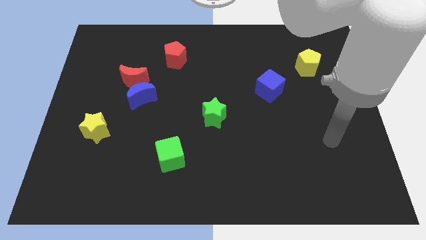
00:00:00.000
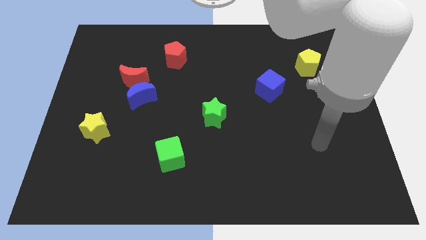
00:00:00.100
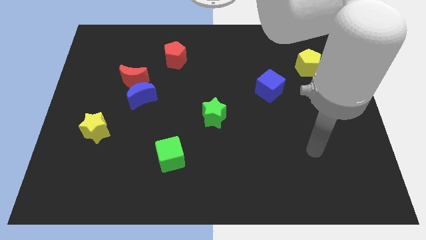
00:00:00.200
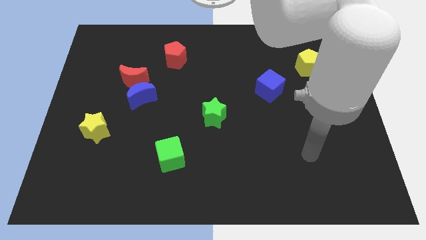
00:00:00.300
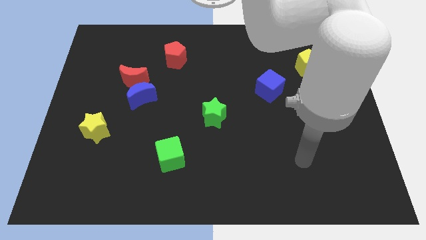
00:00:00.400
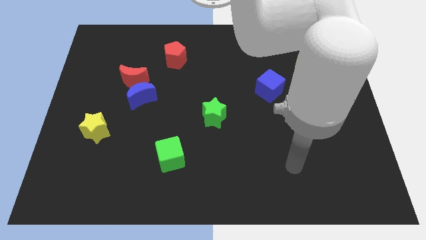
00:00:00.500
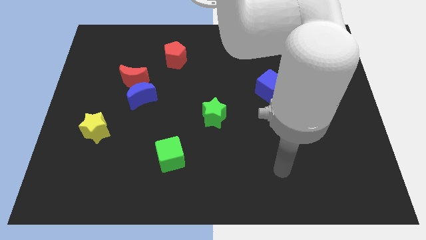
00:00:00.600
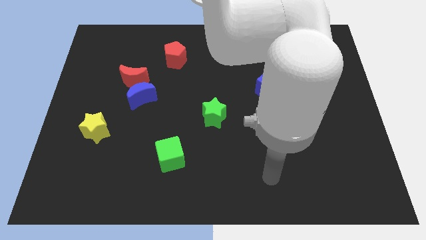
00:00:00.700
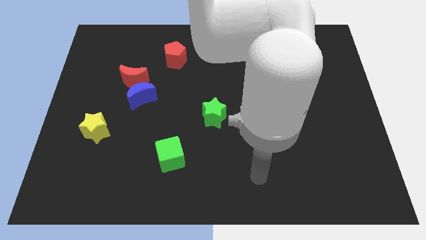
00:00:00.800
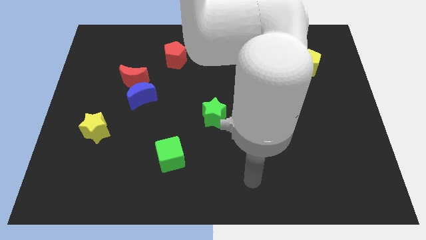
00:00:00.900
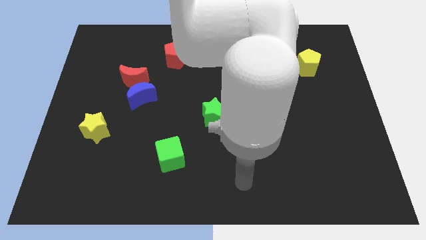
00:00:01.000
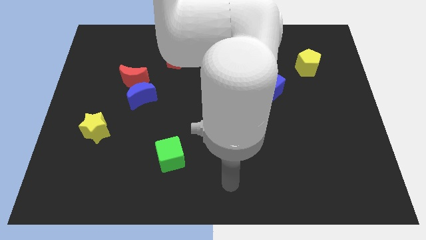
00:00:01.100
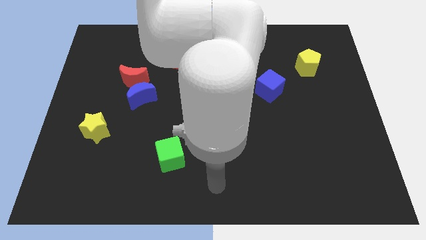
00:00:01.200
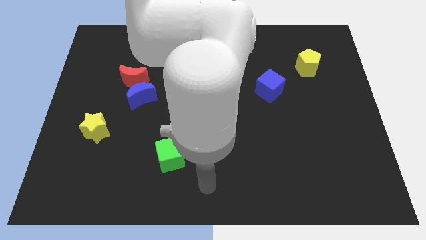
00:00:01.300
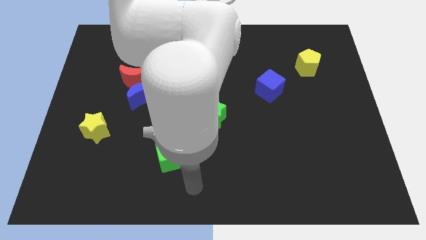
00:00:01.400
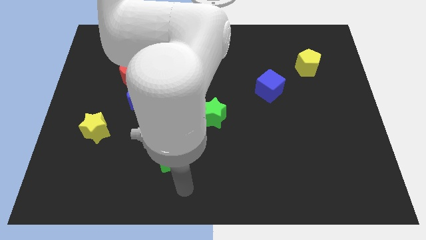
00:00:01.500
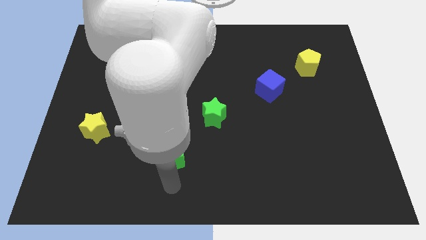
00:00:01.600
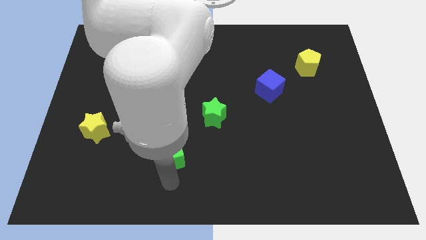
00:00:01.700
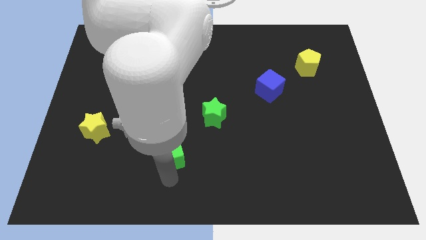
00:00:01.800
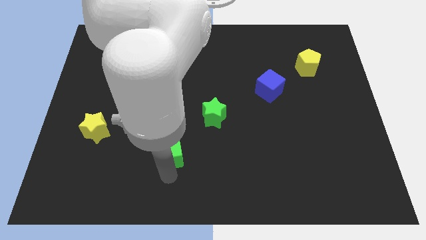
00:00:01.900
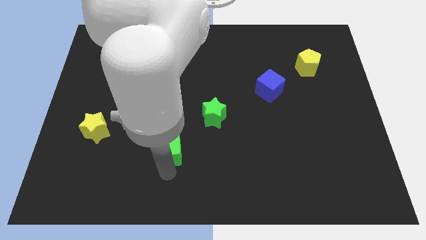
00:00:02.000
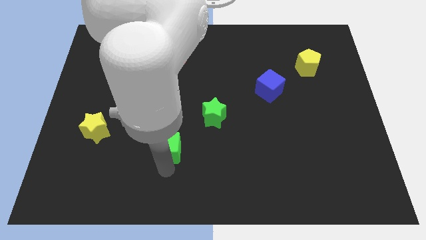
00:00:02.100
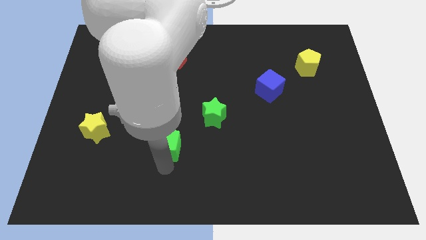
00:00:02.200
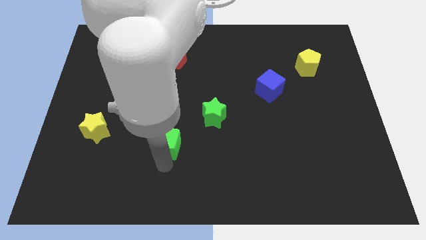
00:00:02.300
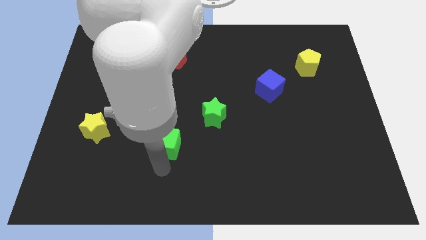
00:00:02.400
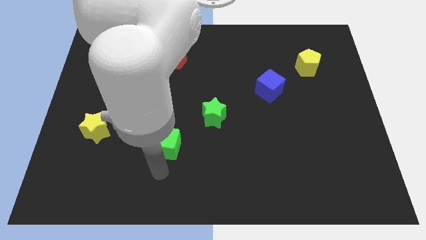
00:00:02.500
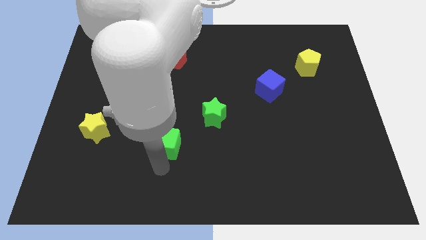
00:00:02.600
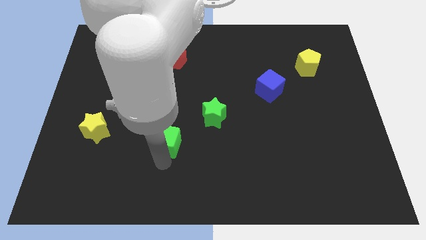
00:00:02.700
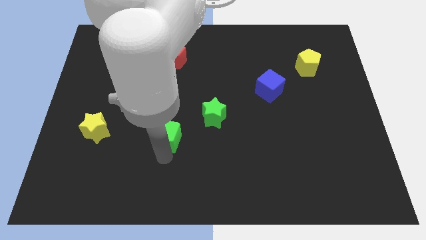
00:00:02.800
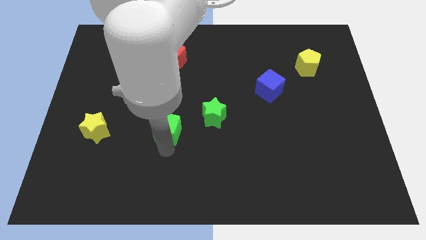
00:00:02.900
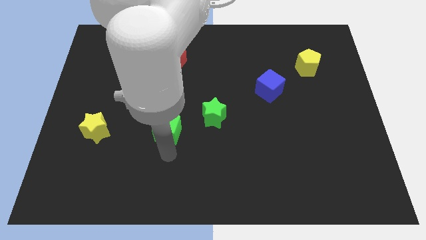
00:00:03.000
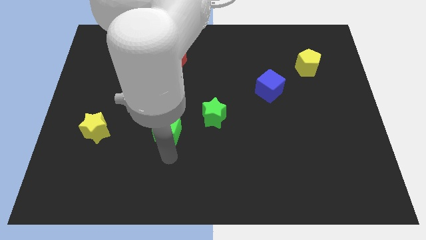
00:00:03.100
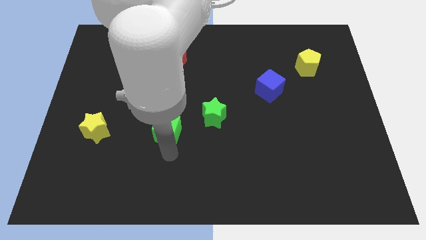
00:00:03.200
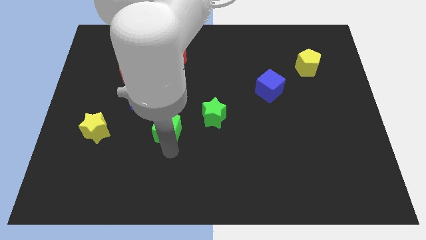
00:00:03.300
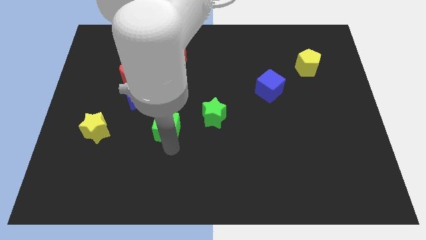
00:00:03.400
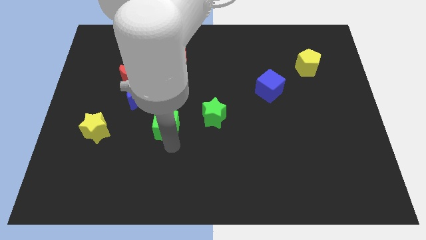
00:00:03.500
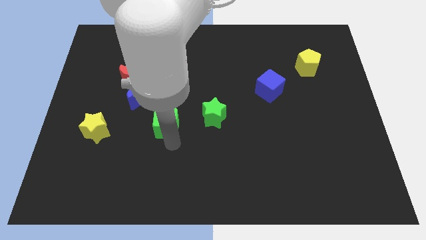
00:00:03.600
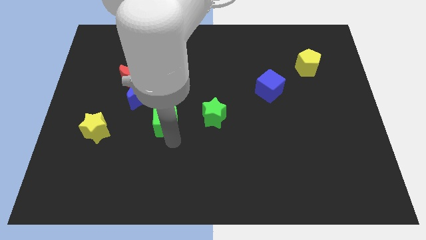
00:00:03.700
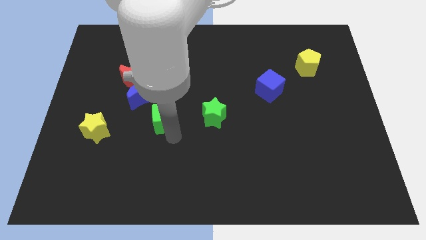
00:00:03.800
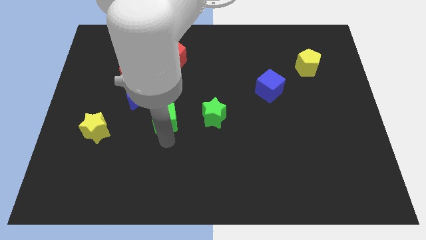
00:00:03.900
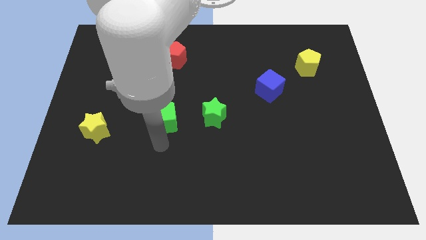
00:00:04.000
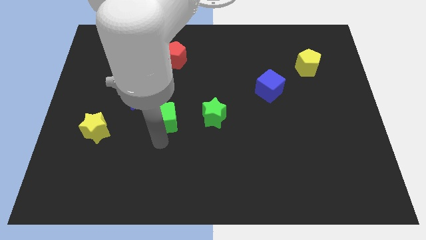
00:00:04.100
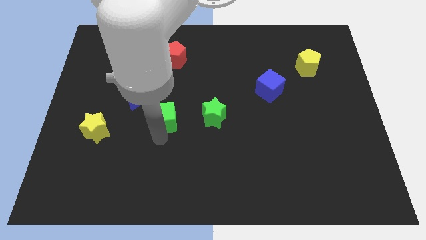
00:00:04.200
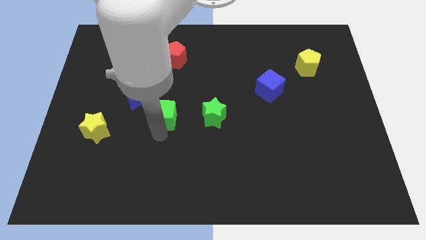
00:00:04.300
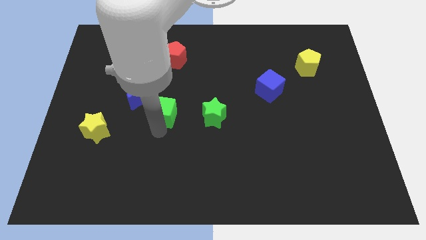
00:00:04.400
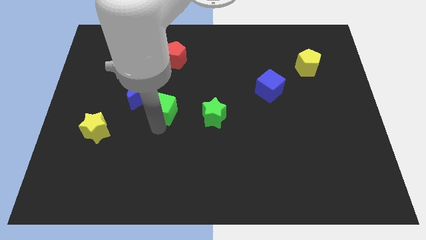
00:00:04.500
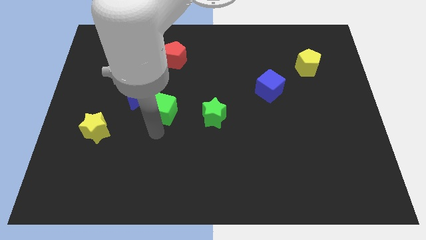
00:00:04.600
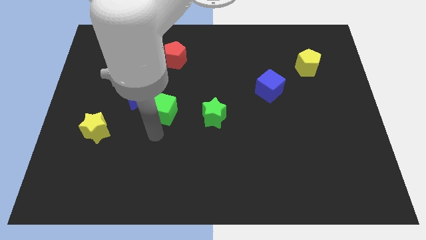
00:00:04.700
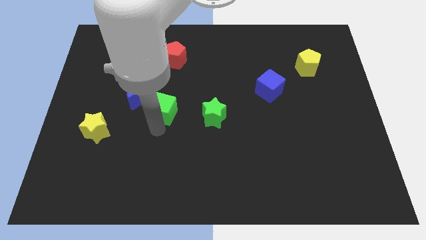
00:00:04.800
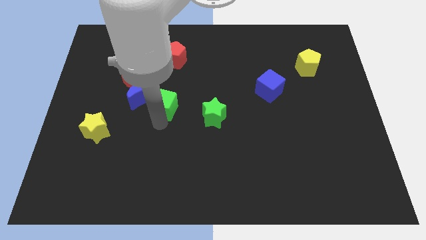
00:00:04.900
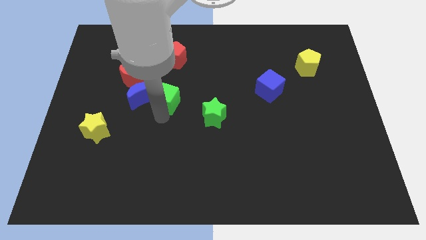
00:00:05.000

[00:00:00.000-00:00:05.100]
push the green cube to the bottom side of the red pentagon

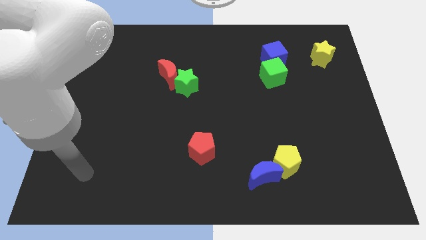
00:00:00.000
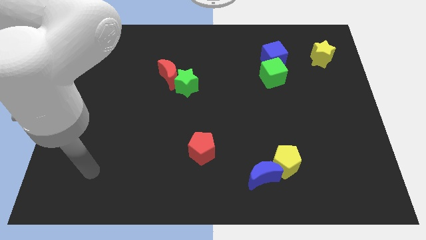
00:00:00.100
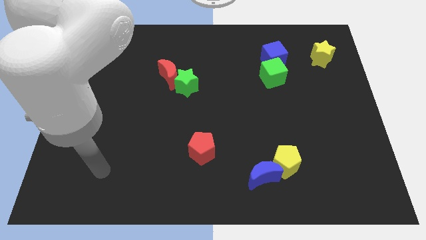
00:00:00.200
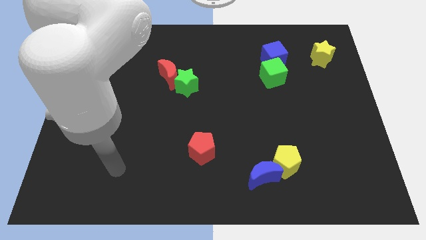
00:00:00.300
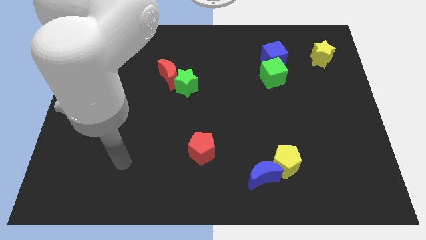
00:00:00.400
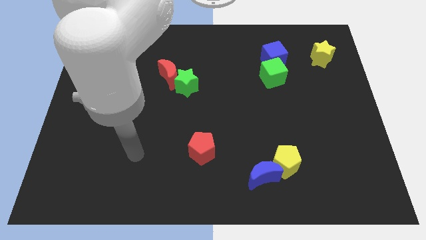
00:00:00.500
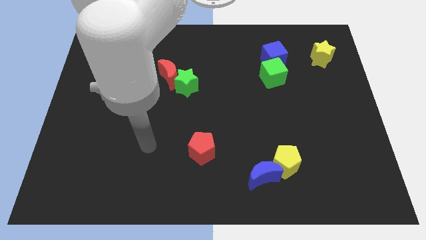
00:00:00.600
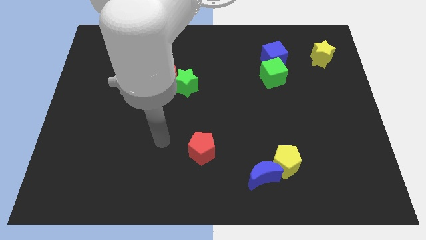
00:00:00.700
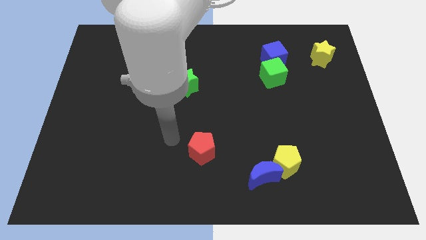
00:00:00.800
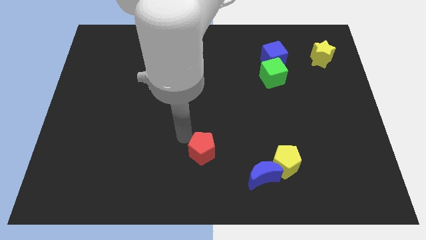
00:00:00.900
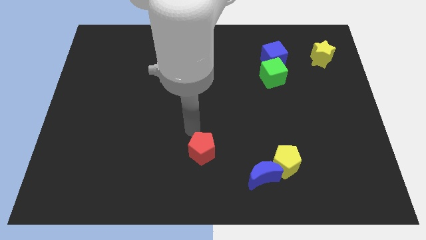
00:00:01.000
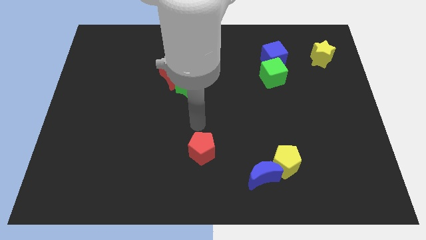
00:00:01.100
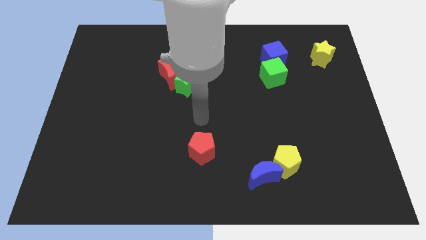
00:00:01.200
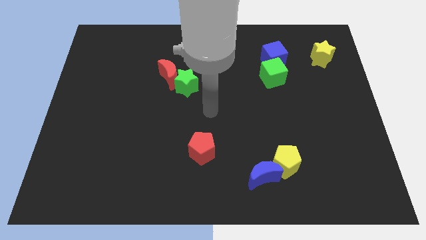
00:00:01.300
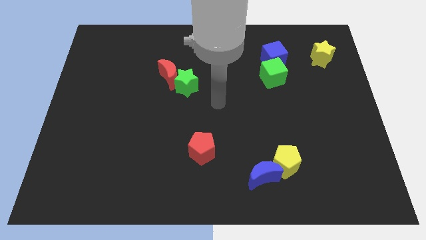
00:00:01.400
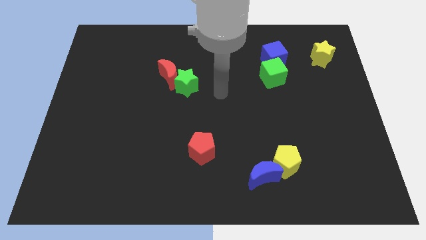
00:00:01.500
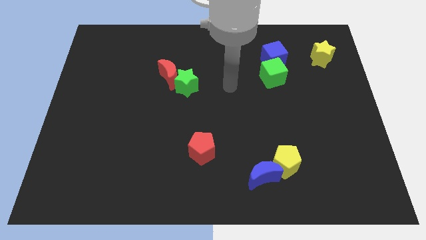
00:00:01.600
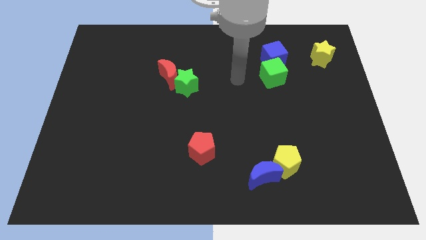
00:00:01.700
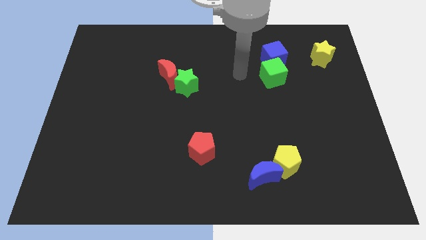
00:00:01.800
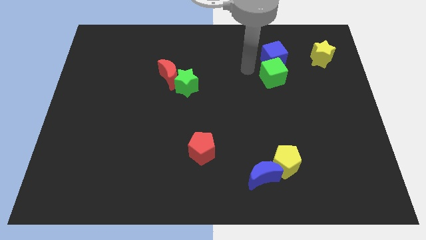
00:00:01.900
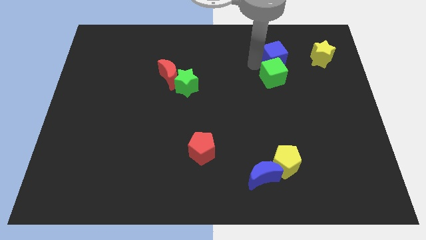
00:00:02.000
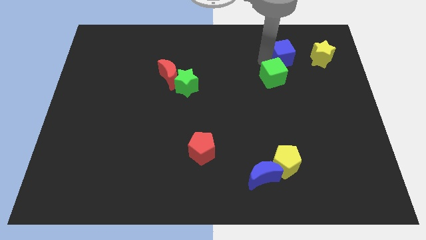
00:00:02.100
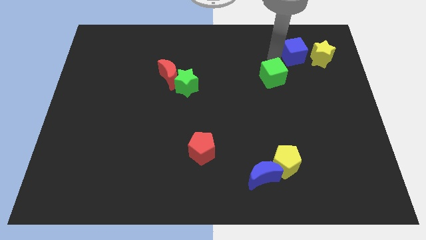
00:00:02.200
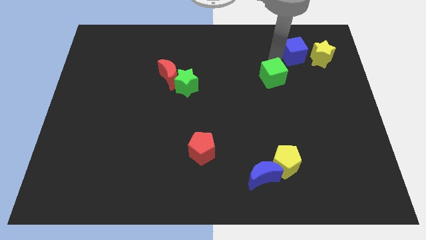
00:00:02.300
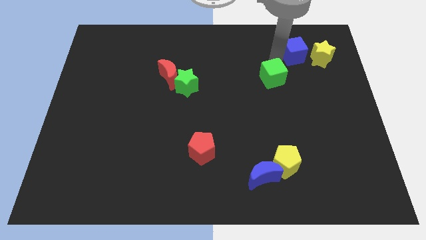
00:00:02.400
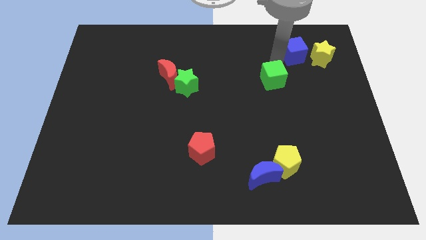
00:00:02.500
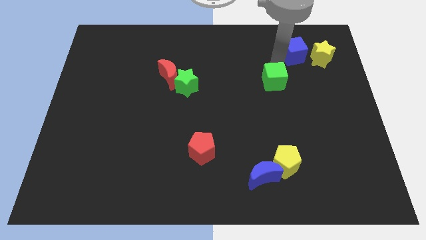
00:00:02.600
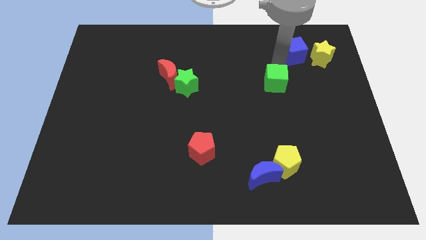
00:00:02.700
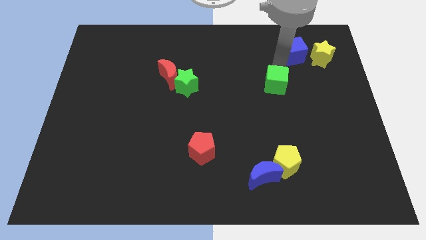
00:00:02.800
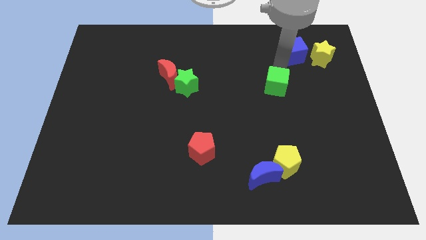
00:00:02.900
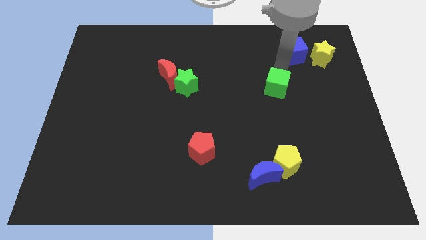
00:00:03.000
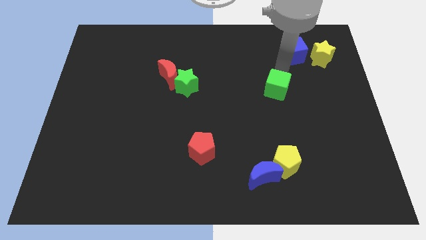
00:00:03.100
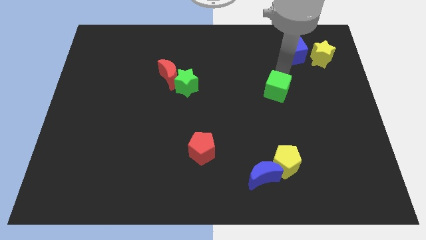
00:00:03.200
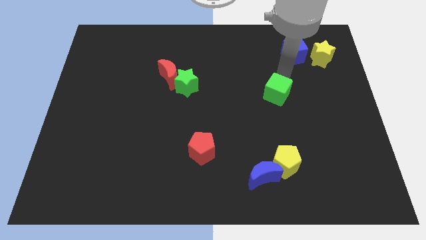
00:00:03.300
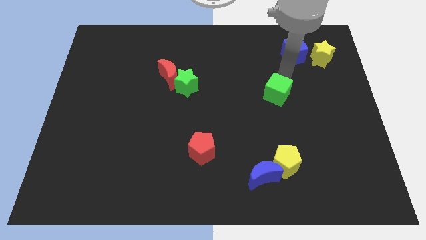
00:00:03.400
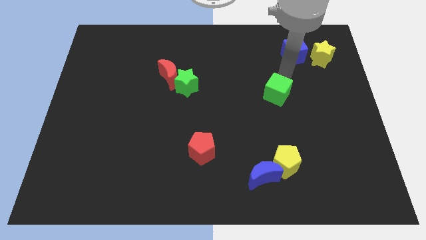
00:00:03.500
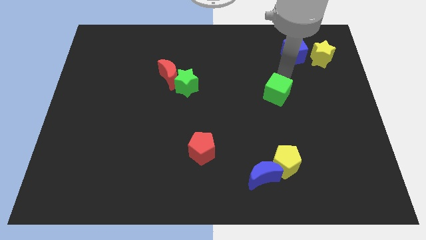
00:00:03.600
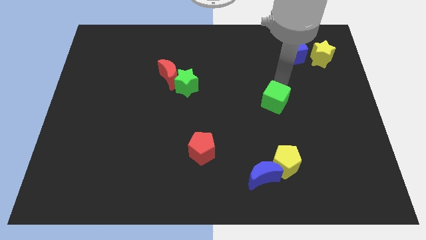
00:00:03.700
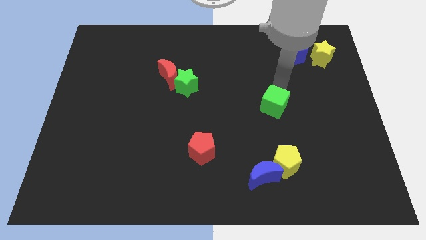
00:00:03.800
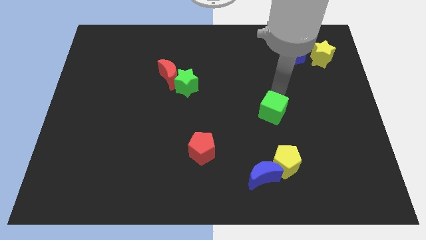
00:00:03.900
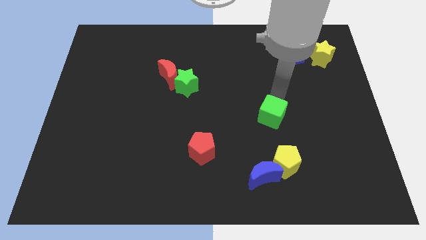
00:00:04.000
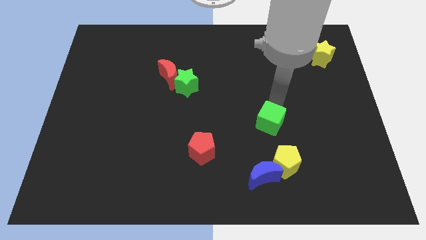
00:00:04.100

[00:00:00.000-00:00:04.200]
move the green cube above the blue moon
